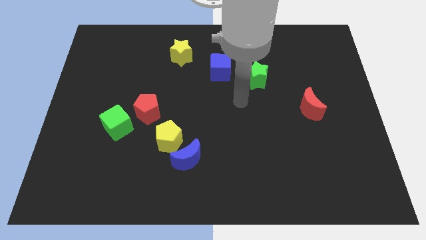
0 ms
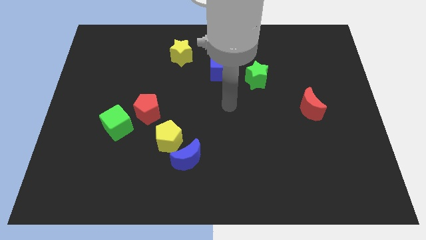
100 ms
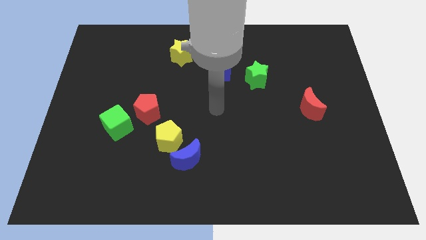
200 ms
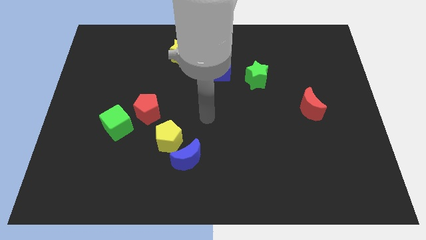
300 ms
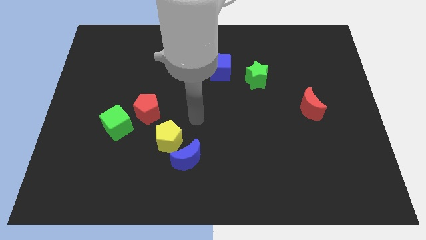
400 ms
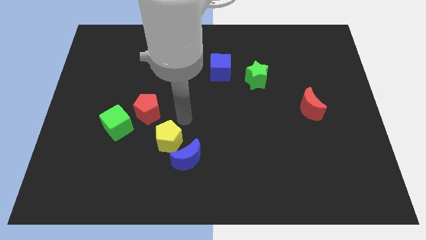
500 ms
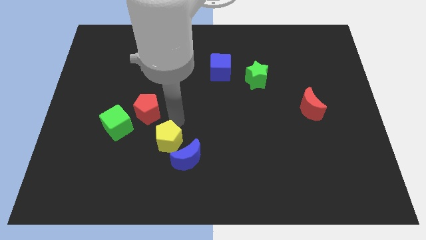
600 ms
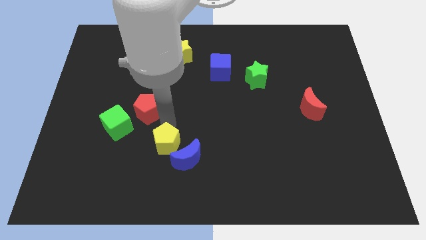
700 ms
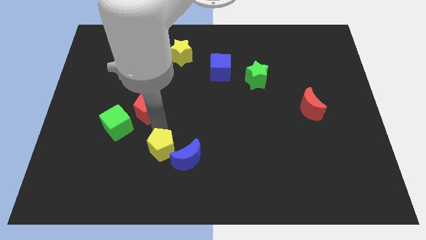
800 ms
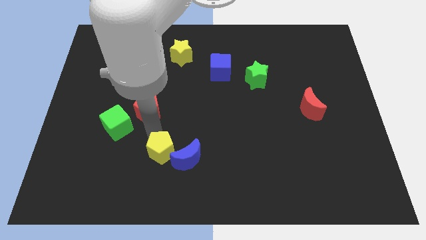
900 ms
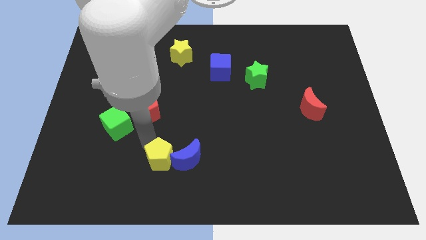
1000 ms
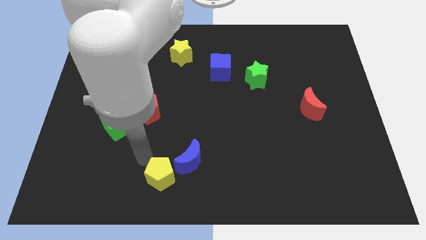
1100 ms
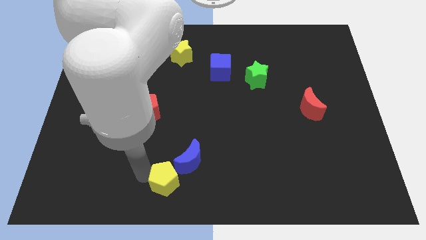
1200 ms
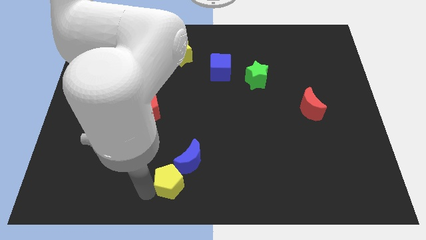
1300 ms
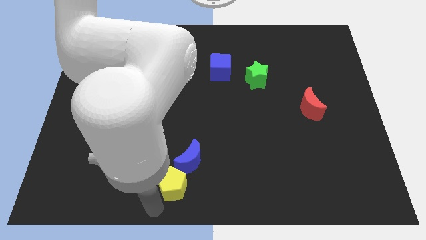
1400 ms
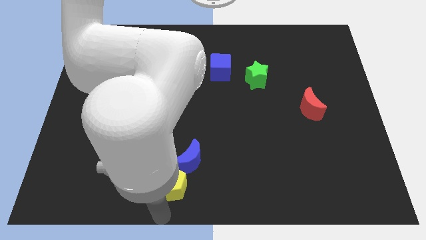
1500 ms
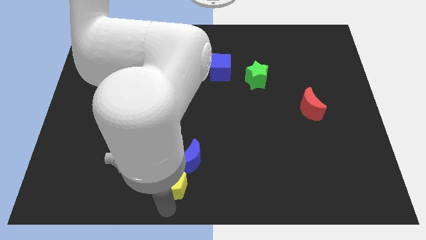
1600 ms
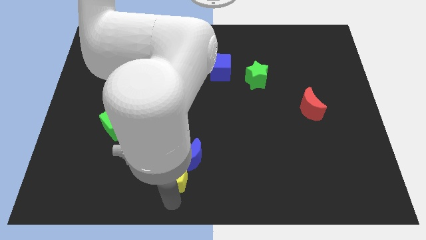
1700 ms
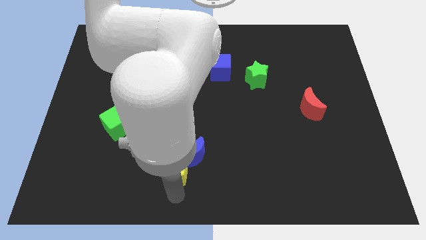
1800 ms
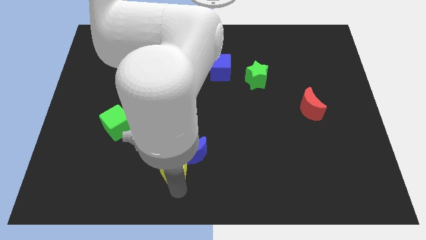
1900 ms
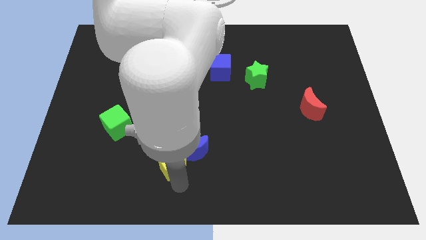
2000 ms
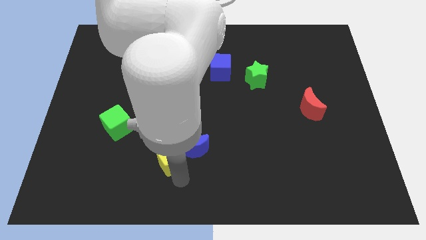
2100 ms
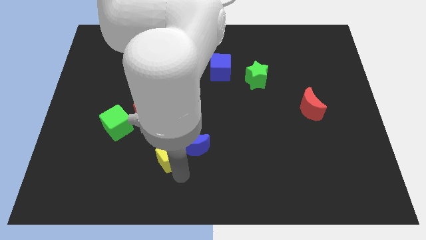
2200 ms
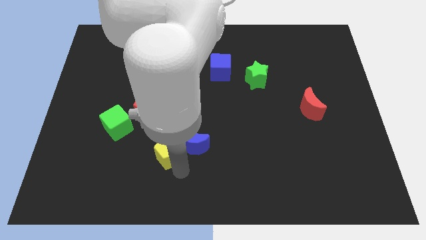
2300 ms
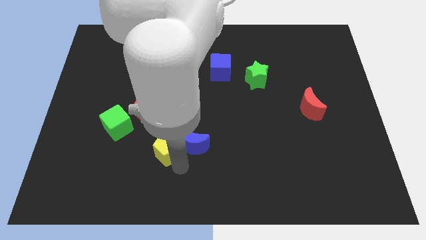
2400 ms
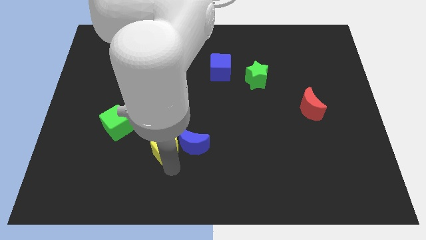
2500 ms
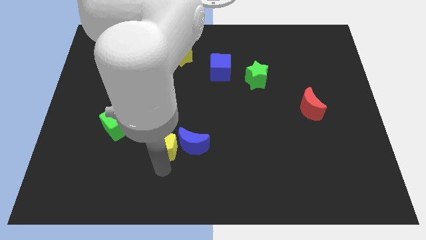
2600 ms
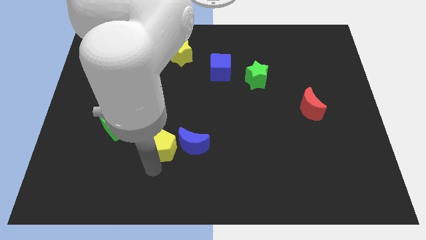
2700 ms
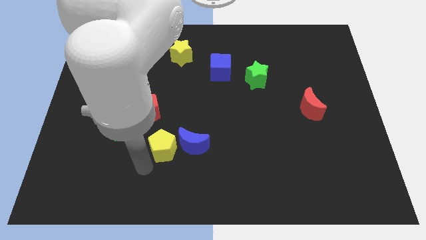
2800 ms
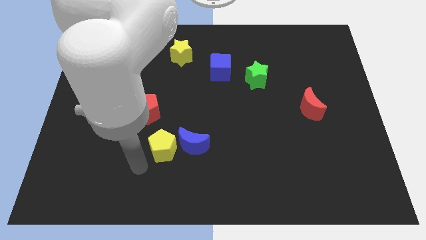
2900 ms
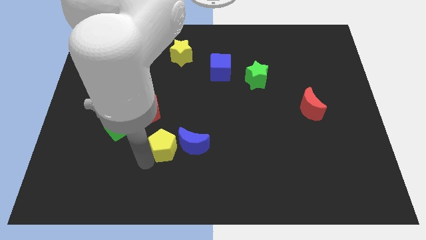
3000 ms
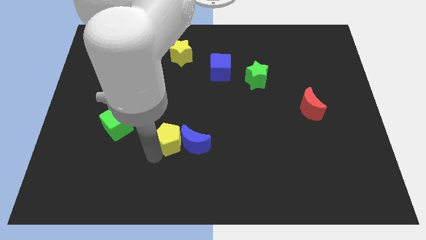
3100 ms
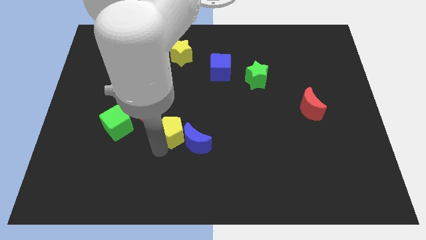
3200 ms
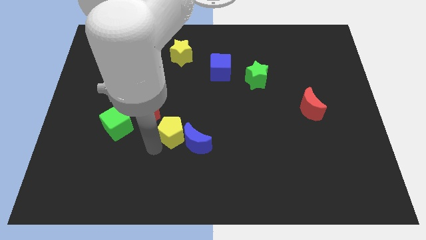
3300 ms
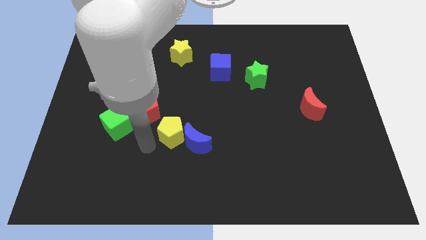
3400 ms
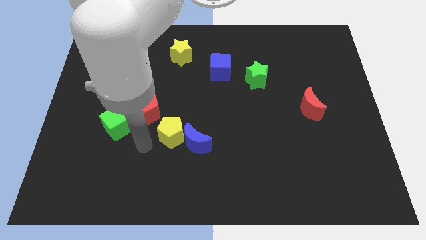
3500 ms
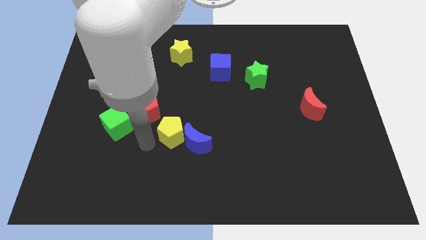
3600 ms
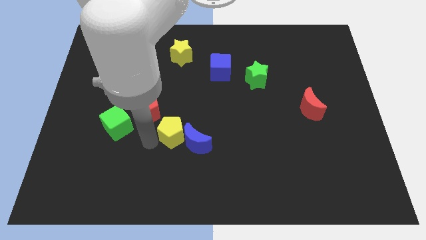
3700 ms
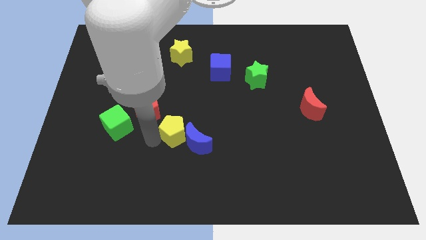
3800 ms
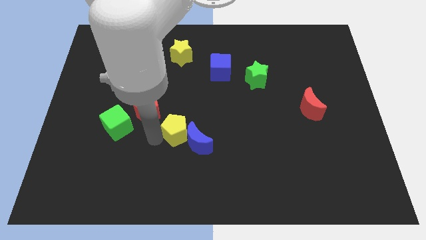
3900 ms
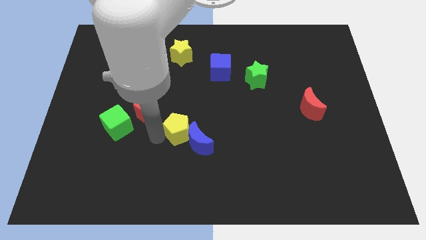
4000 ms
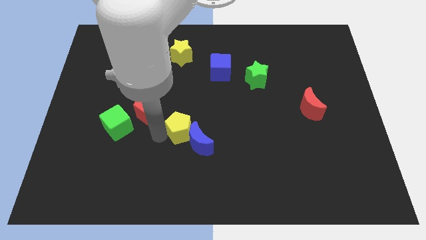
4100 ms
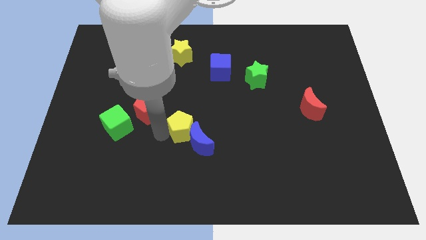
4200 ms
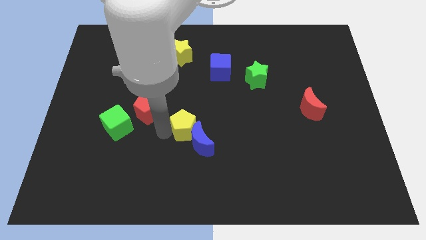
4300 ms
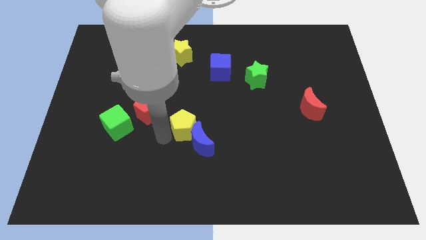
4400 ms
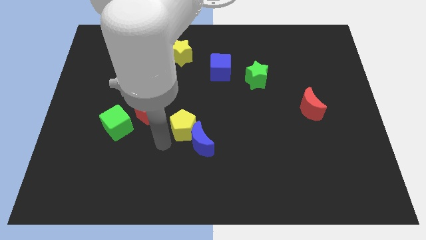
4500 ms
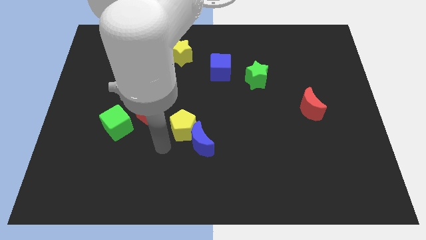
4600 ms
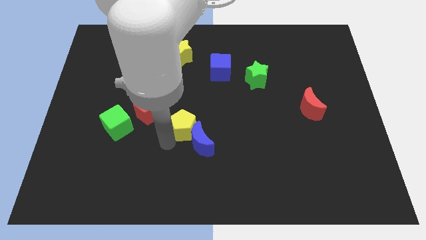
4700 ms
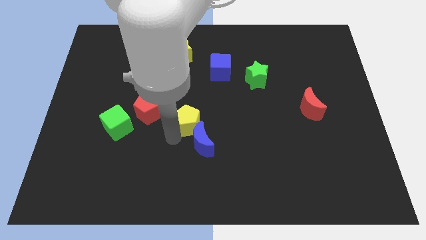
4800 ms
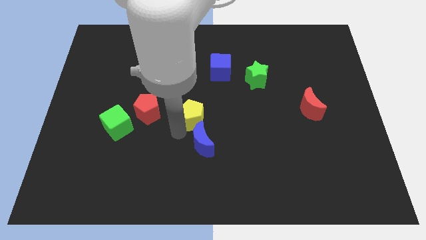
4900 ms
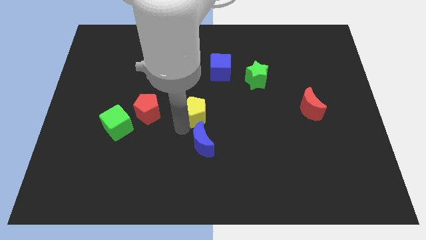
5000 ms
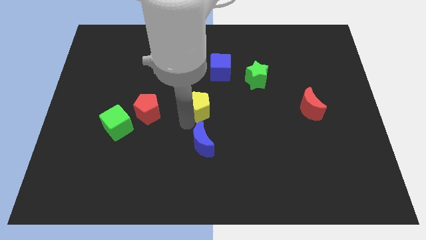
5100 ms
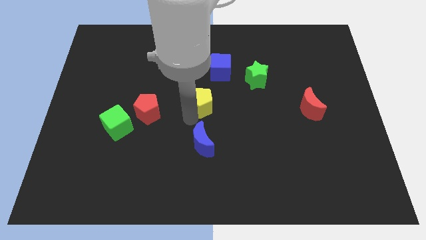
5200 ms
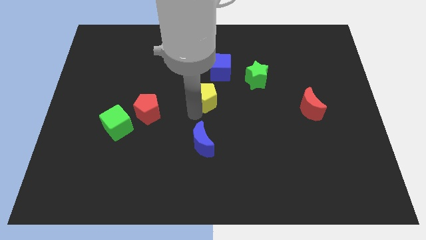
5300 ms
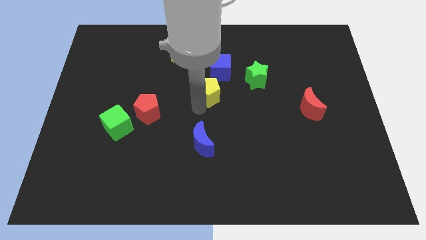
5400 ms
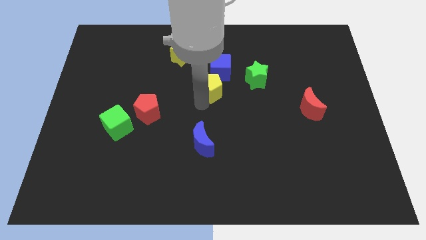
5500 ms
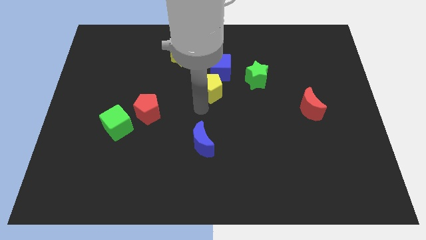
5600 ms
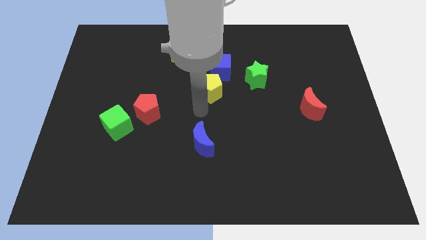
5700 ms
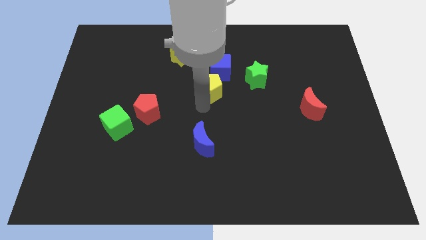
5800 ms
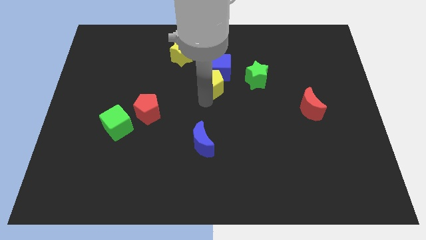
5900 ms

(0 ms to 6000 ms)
push the yellow pentagon close to the blue cube

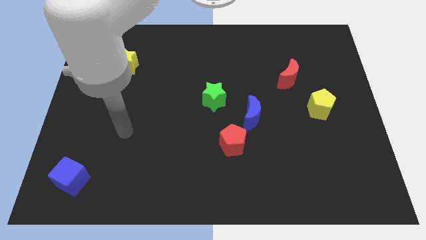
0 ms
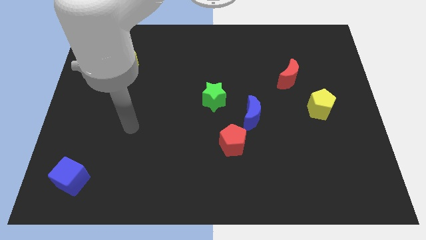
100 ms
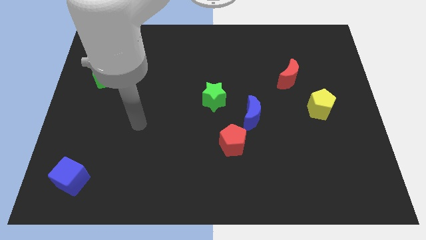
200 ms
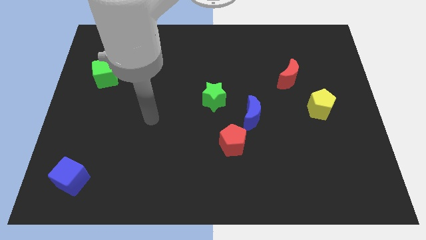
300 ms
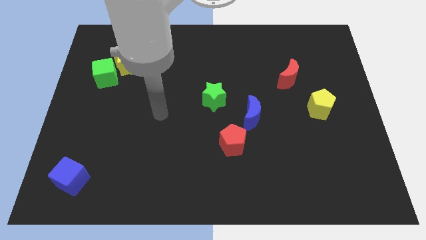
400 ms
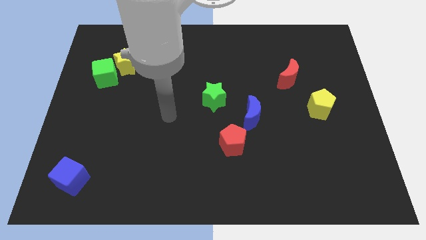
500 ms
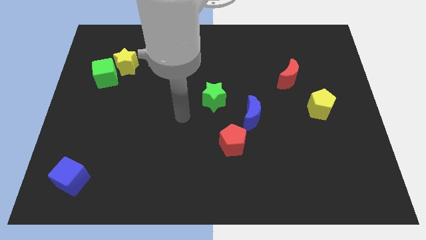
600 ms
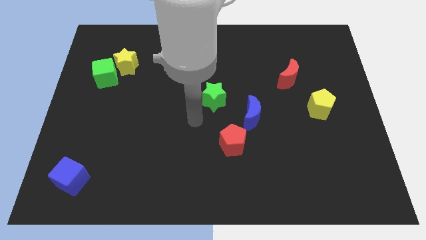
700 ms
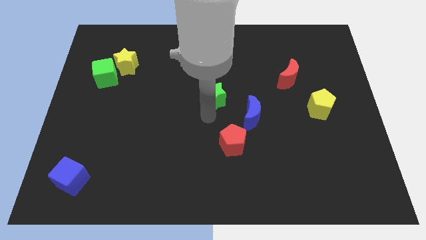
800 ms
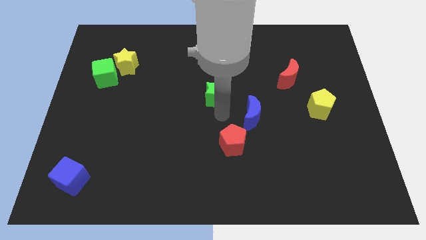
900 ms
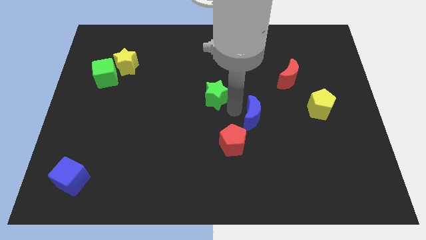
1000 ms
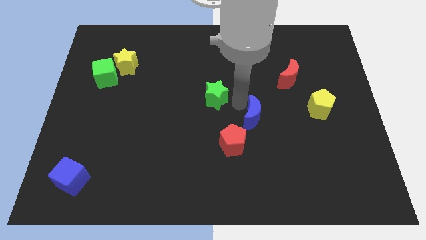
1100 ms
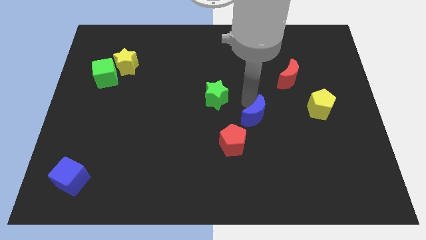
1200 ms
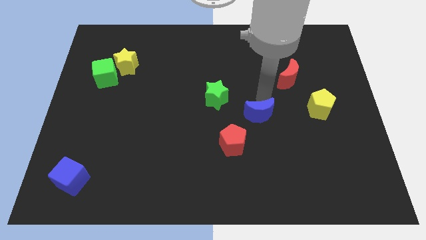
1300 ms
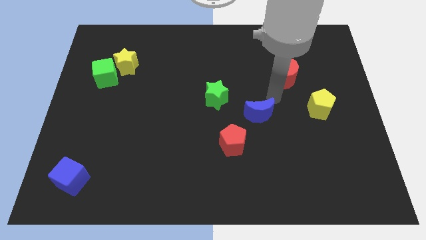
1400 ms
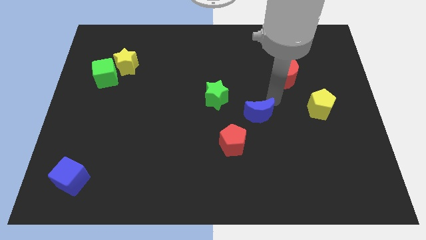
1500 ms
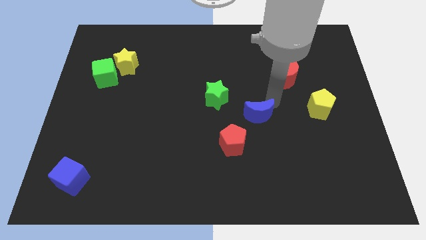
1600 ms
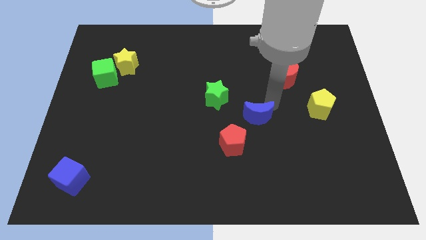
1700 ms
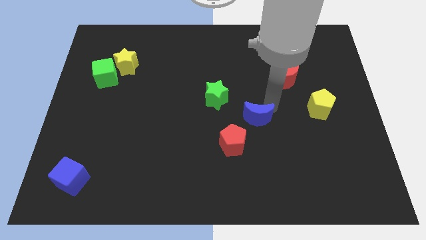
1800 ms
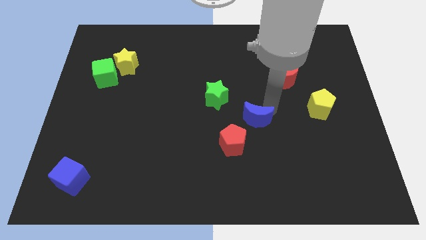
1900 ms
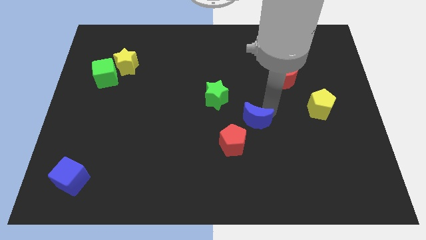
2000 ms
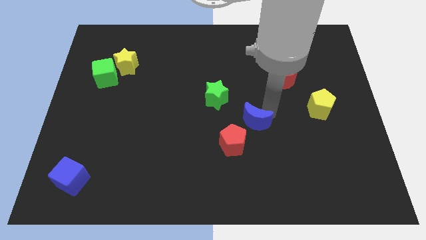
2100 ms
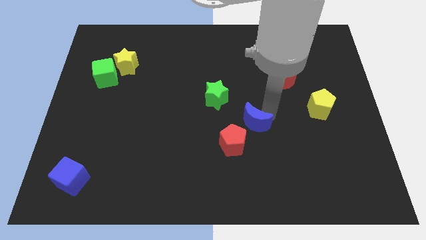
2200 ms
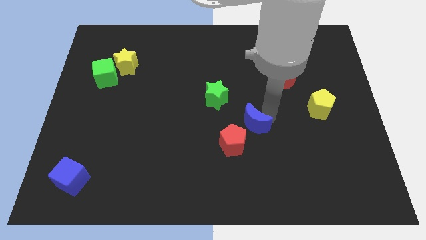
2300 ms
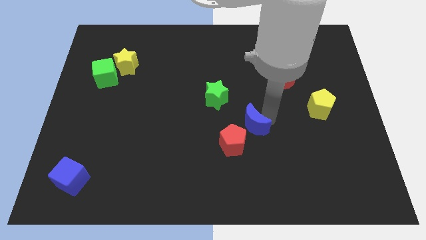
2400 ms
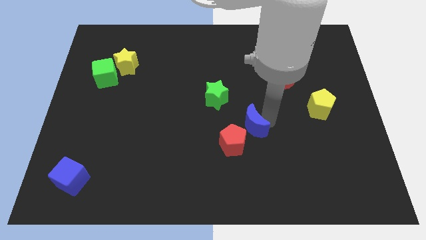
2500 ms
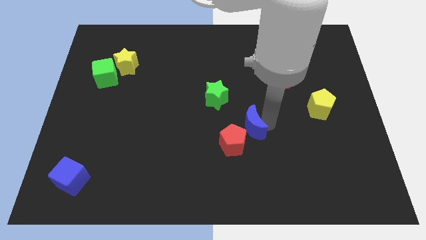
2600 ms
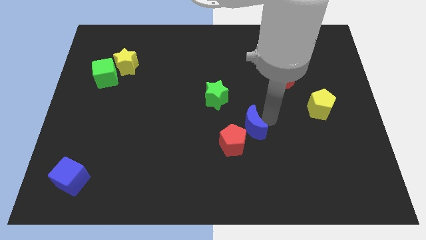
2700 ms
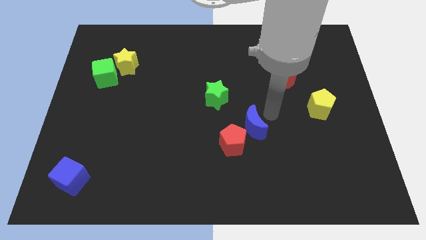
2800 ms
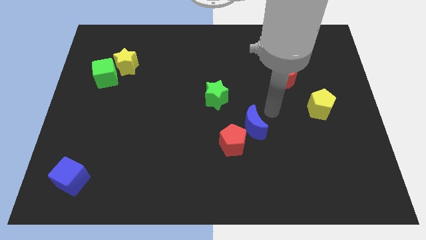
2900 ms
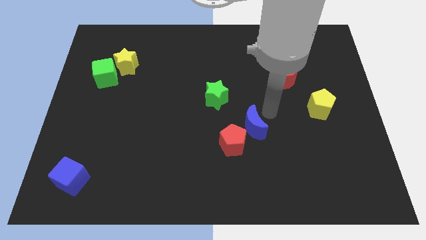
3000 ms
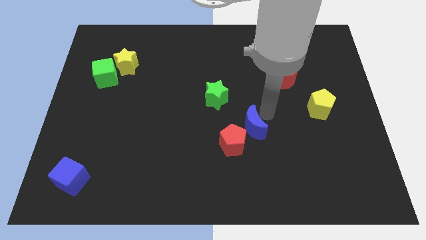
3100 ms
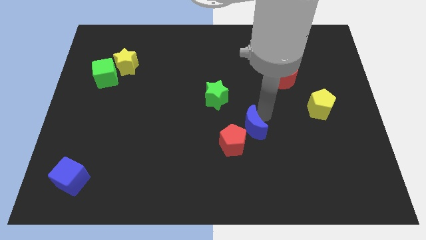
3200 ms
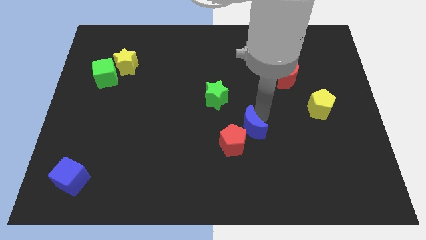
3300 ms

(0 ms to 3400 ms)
slide the blue moon next to the red pentagon
